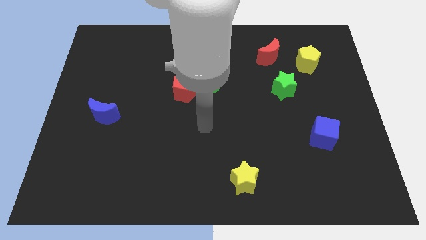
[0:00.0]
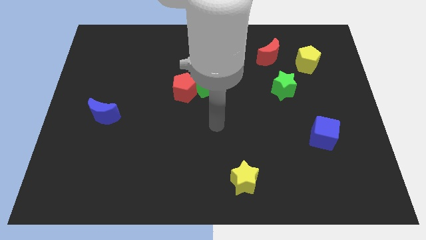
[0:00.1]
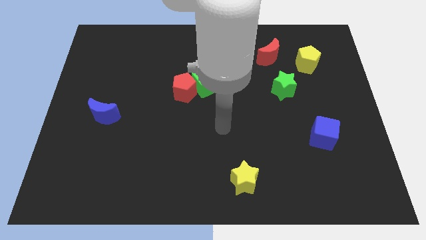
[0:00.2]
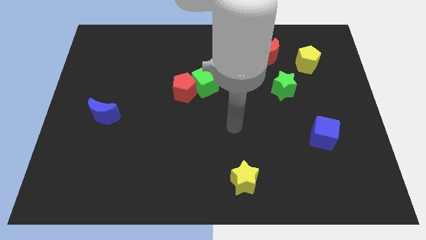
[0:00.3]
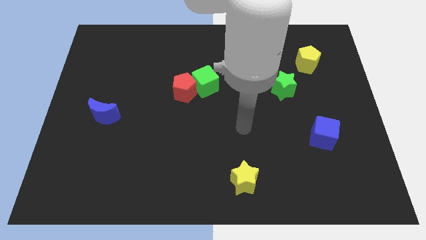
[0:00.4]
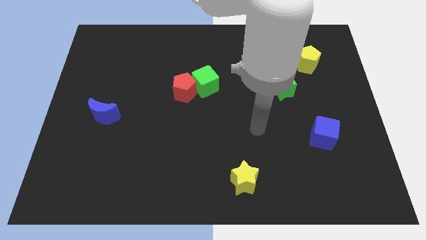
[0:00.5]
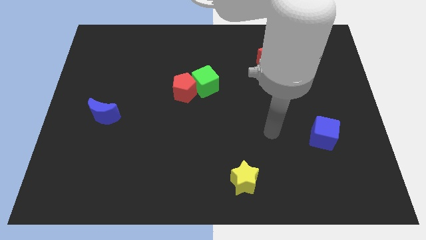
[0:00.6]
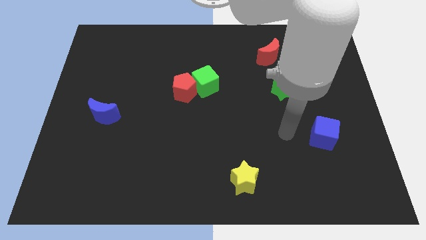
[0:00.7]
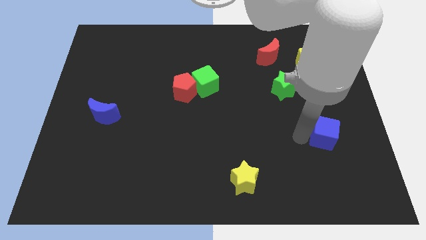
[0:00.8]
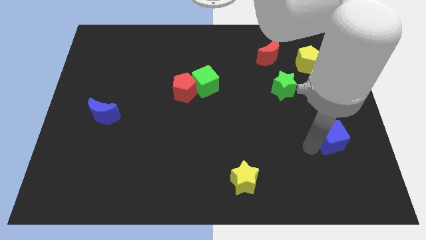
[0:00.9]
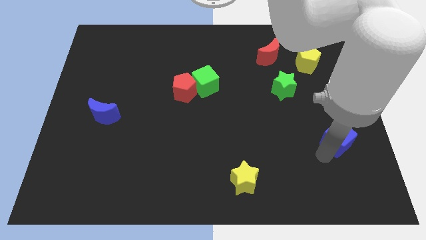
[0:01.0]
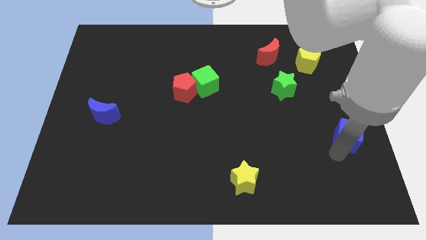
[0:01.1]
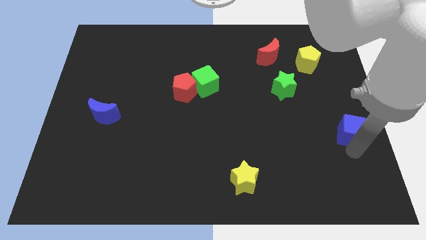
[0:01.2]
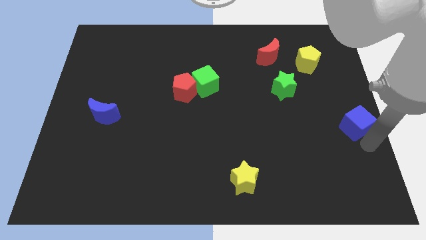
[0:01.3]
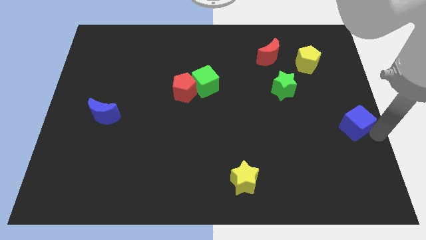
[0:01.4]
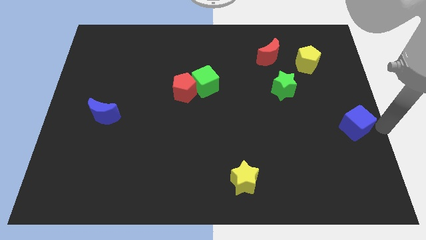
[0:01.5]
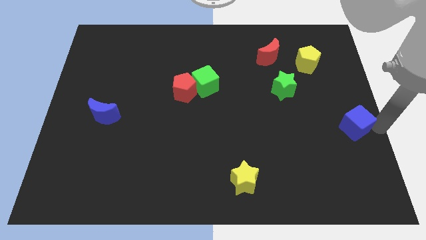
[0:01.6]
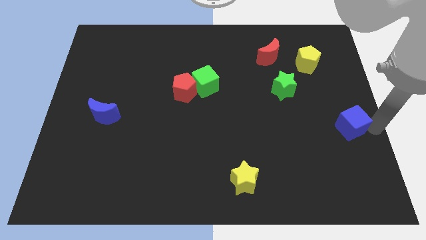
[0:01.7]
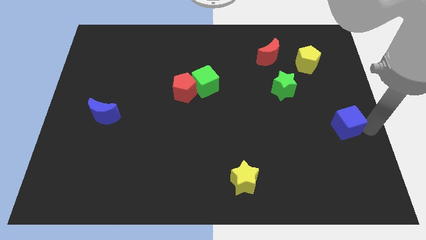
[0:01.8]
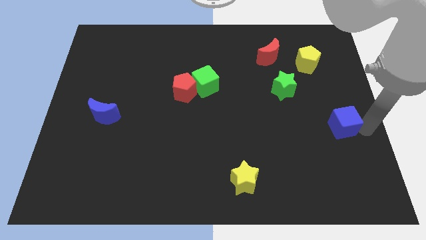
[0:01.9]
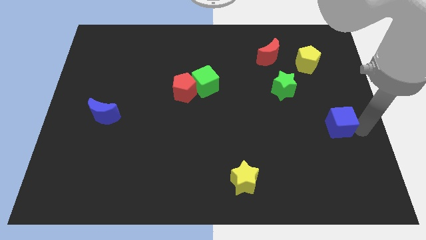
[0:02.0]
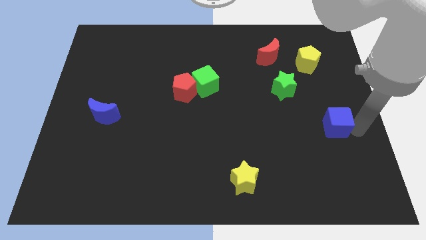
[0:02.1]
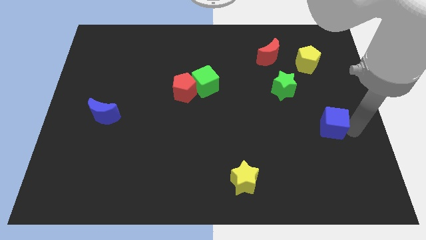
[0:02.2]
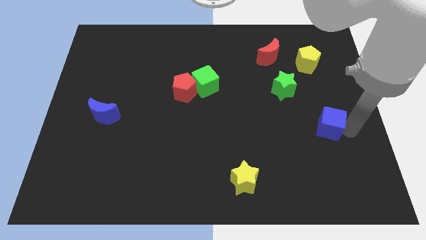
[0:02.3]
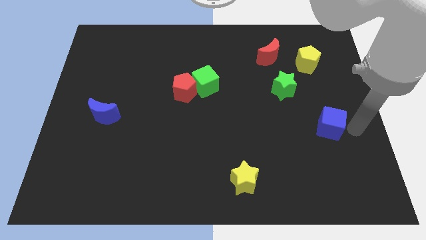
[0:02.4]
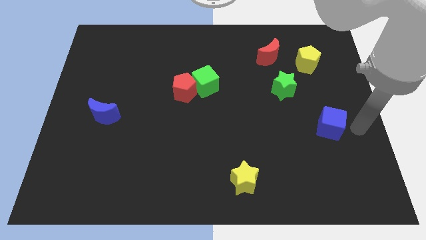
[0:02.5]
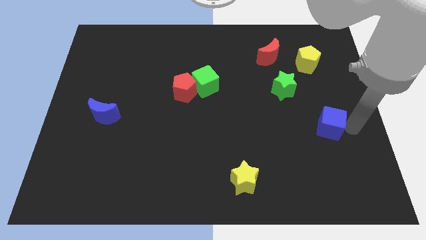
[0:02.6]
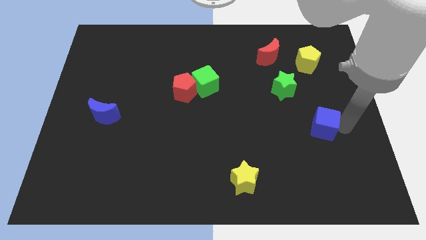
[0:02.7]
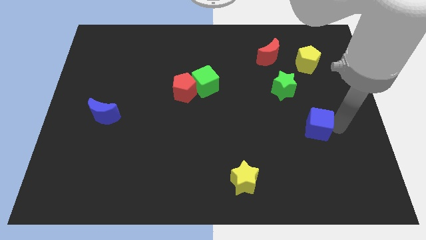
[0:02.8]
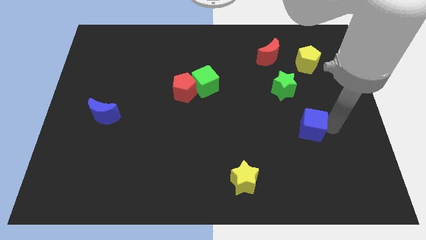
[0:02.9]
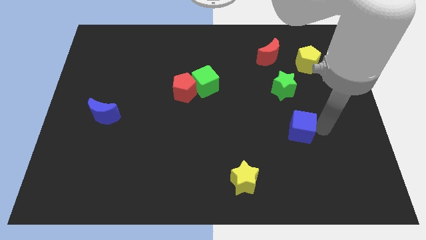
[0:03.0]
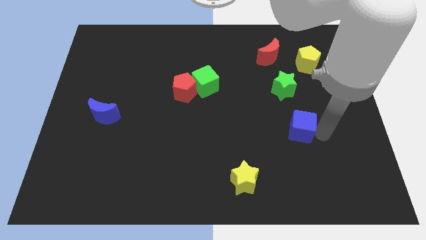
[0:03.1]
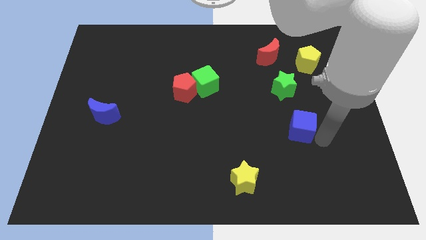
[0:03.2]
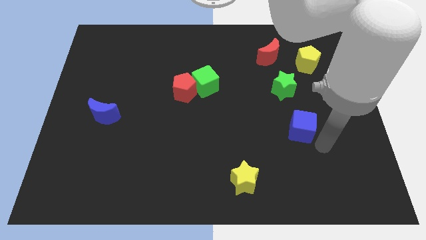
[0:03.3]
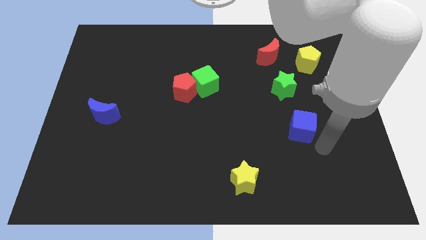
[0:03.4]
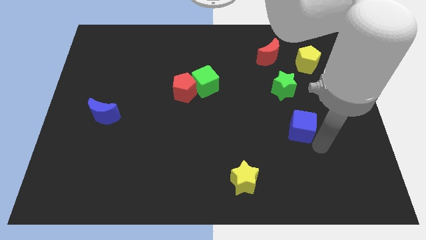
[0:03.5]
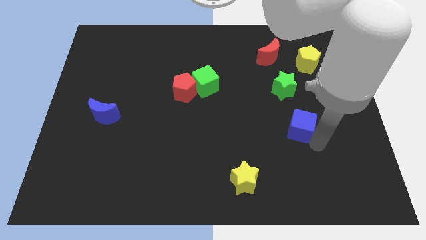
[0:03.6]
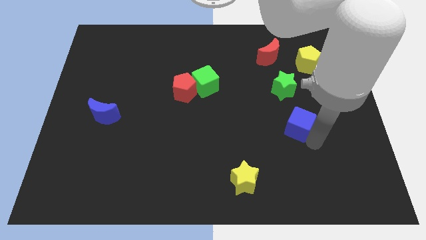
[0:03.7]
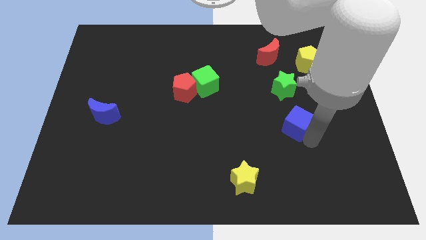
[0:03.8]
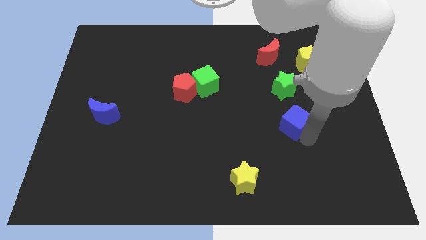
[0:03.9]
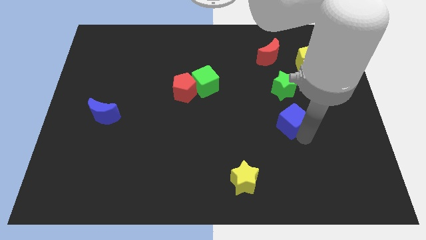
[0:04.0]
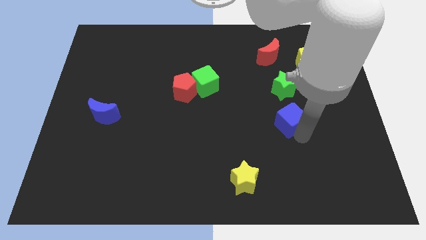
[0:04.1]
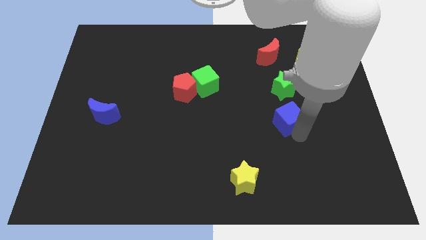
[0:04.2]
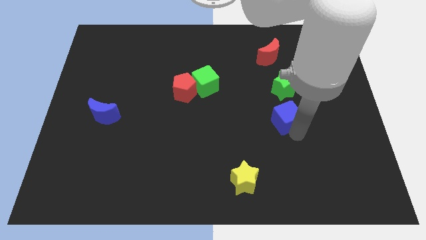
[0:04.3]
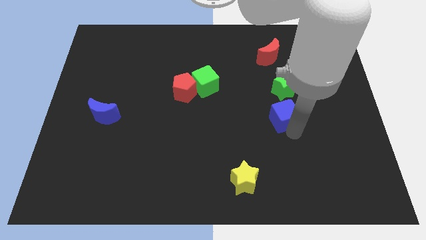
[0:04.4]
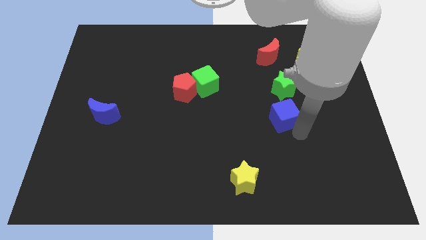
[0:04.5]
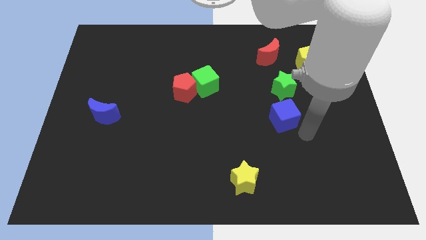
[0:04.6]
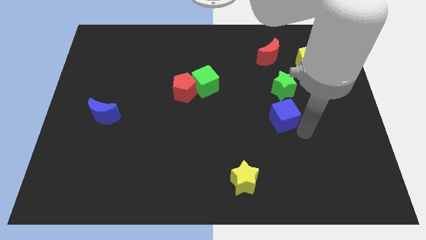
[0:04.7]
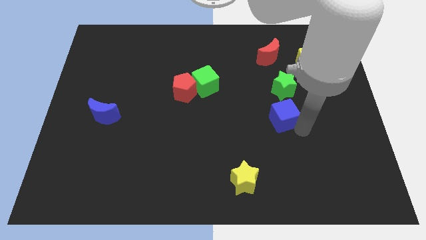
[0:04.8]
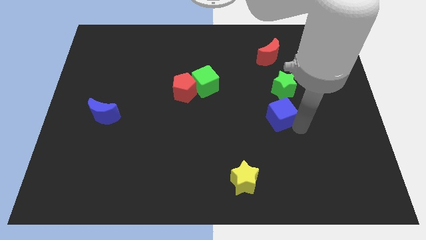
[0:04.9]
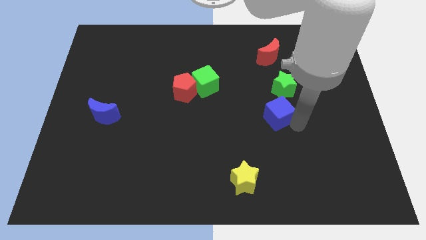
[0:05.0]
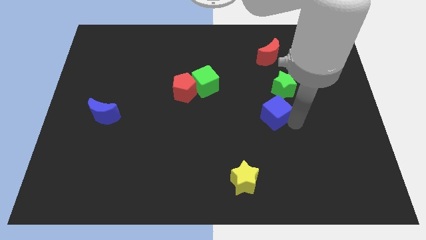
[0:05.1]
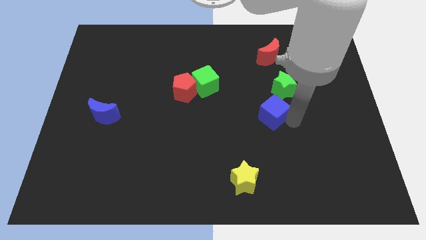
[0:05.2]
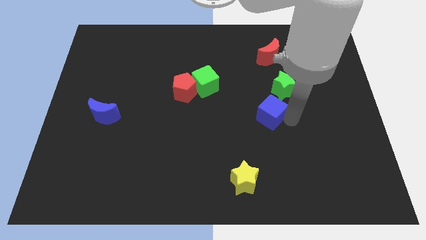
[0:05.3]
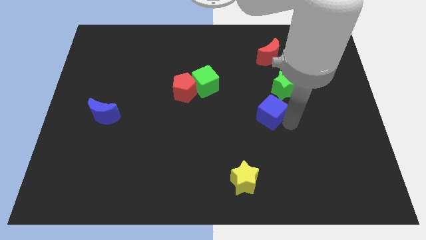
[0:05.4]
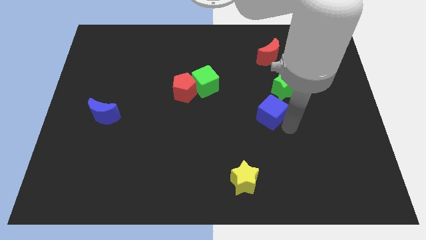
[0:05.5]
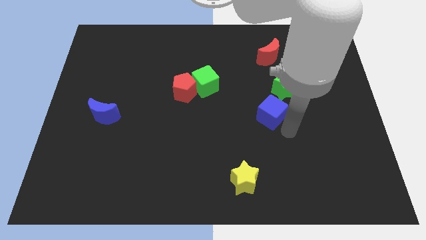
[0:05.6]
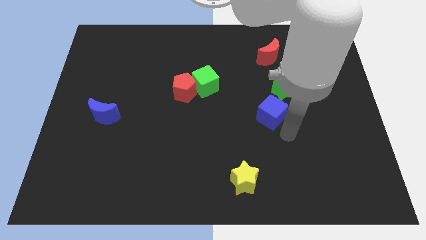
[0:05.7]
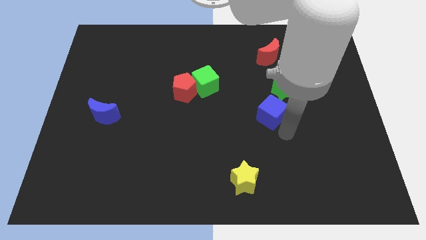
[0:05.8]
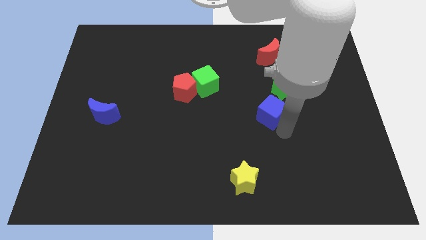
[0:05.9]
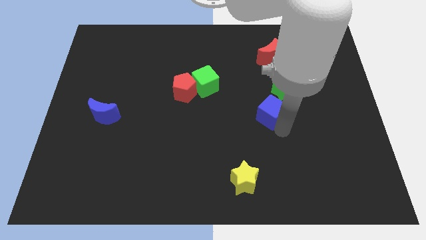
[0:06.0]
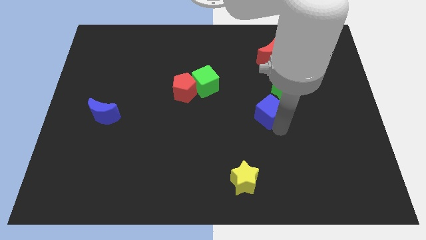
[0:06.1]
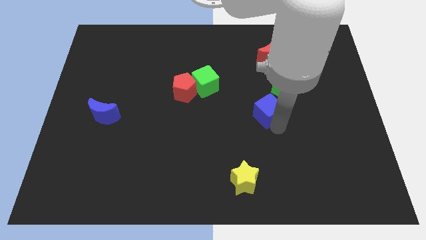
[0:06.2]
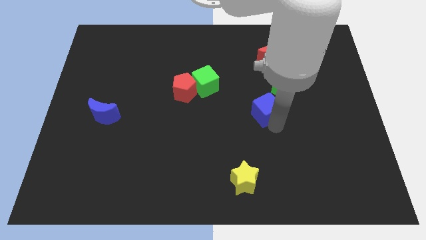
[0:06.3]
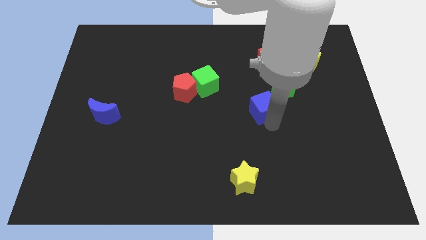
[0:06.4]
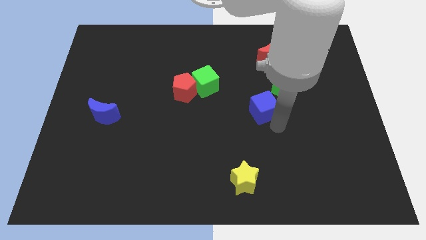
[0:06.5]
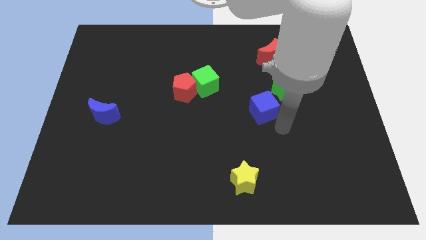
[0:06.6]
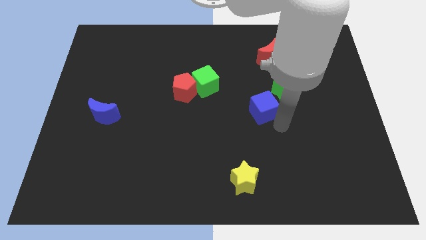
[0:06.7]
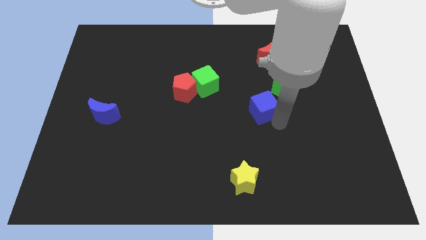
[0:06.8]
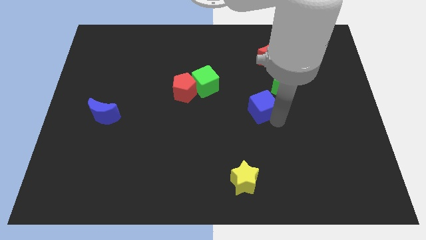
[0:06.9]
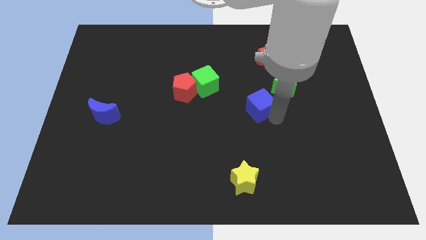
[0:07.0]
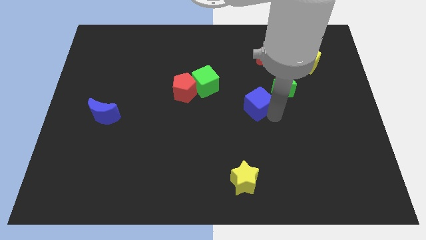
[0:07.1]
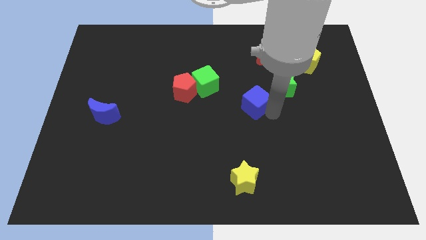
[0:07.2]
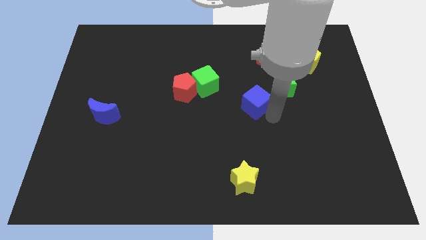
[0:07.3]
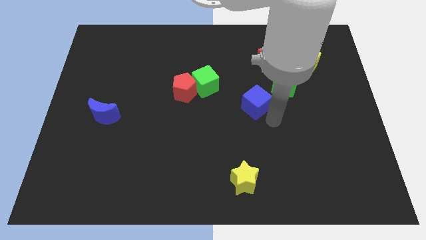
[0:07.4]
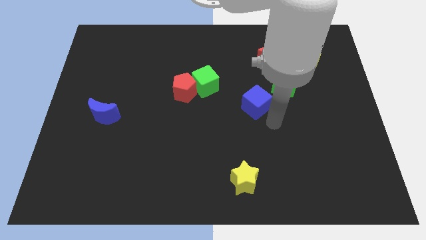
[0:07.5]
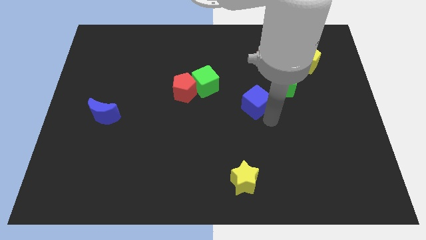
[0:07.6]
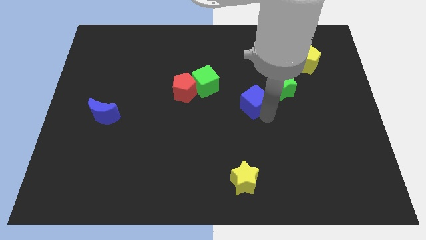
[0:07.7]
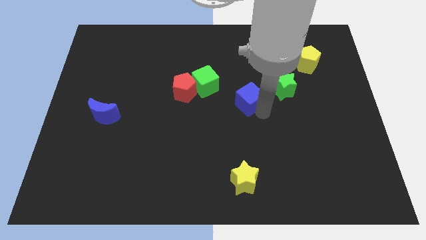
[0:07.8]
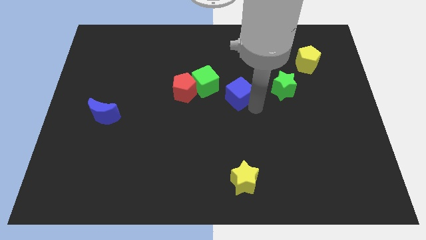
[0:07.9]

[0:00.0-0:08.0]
move the blue cube up and then left

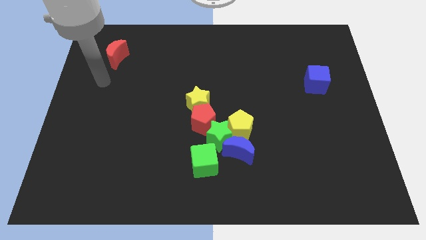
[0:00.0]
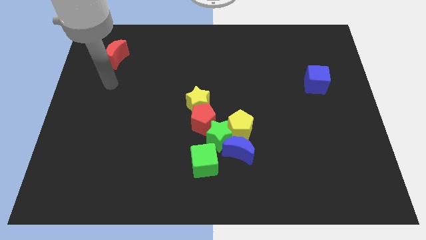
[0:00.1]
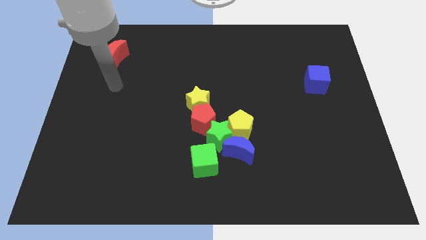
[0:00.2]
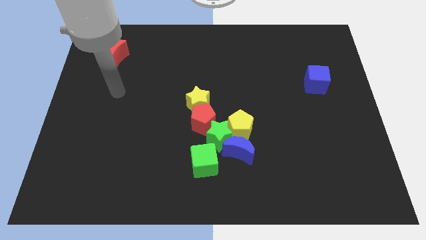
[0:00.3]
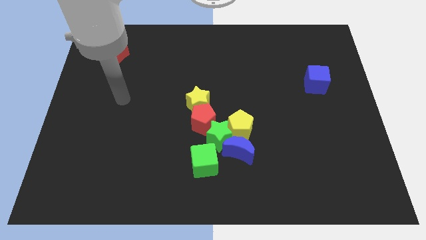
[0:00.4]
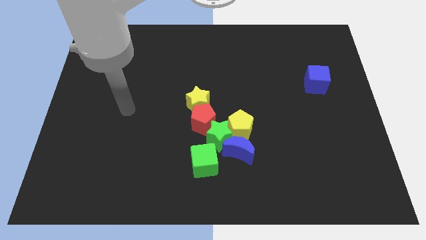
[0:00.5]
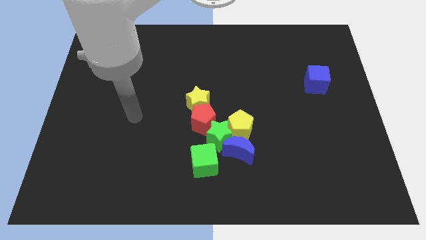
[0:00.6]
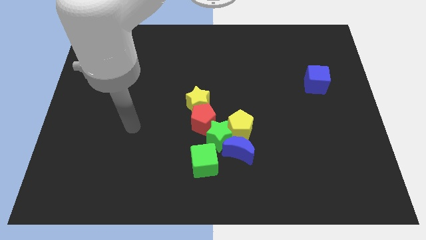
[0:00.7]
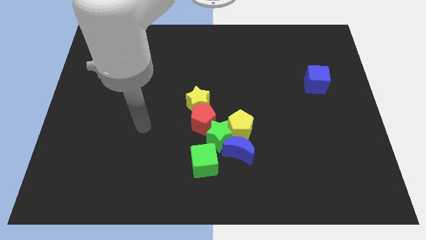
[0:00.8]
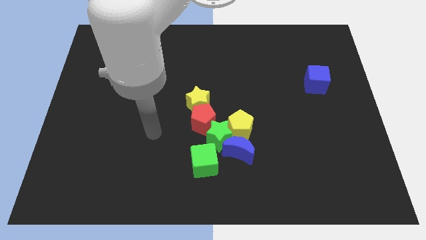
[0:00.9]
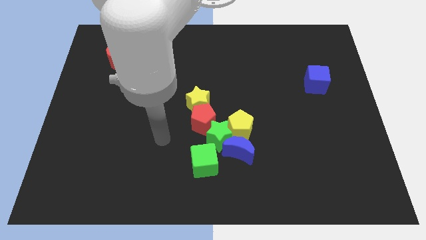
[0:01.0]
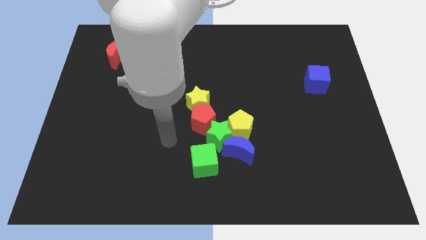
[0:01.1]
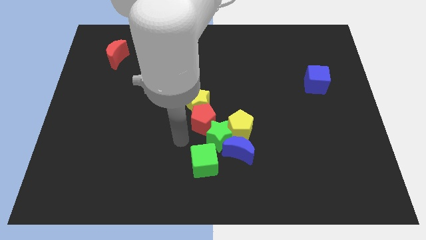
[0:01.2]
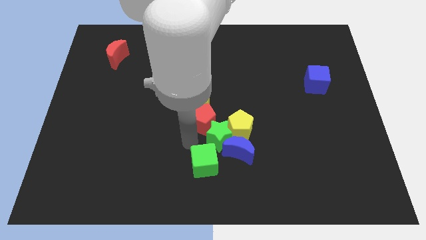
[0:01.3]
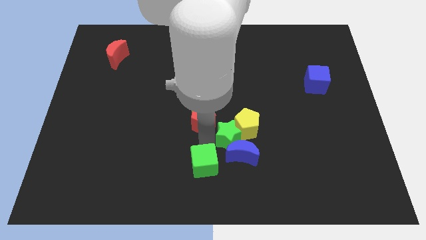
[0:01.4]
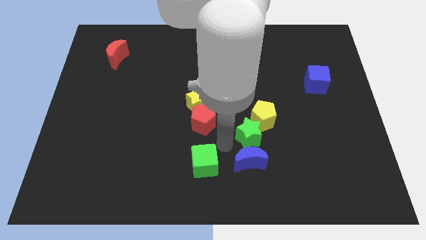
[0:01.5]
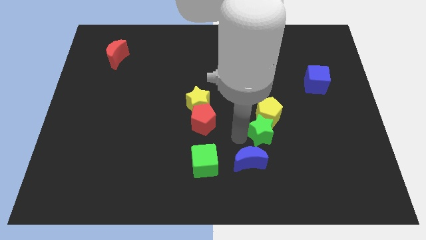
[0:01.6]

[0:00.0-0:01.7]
push the yellow pentagon slightly upwards and right
